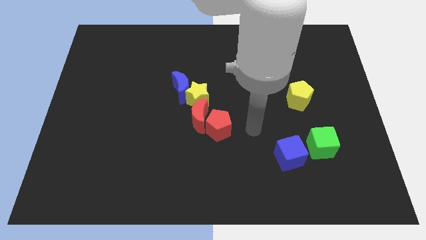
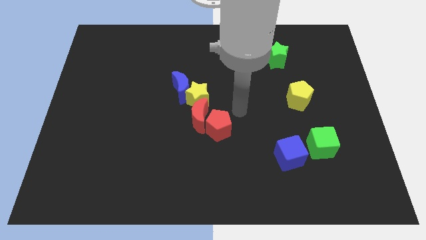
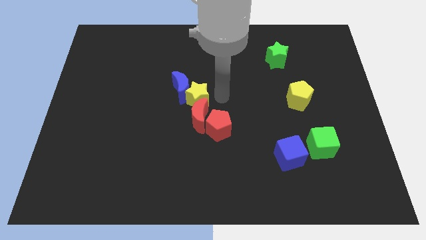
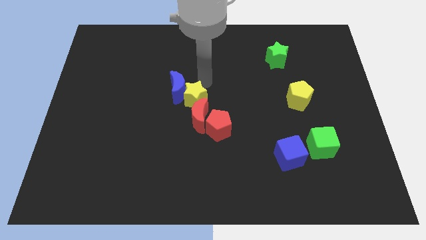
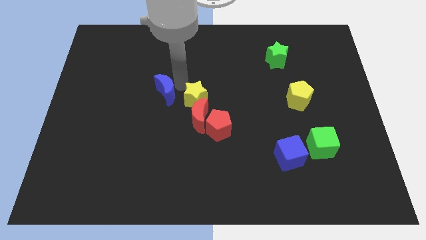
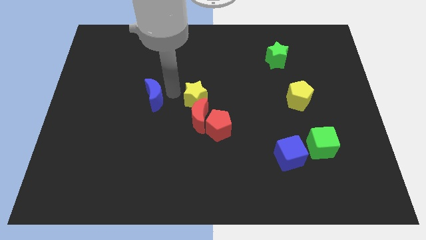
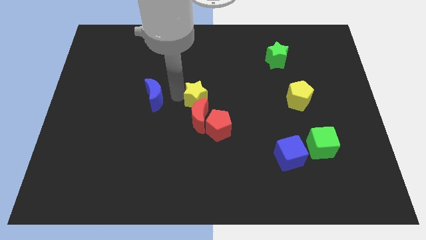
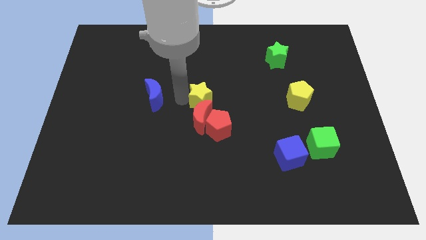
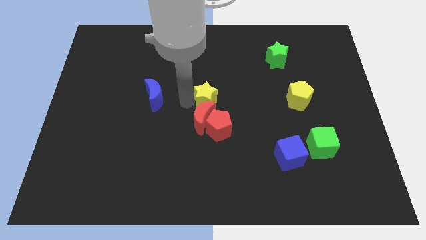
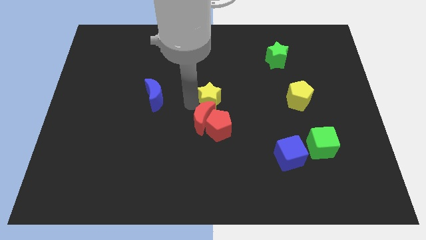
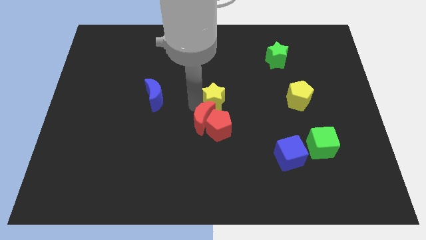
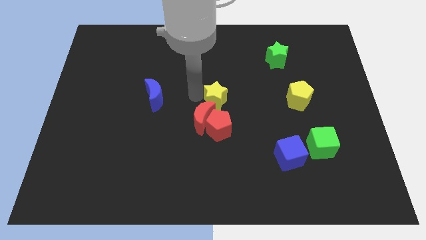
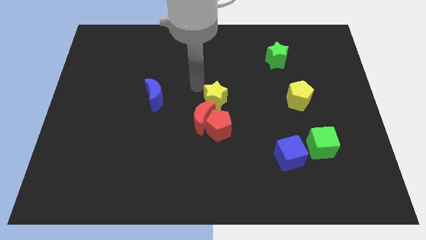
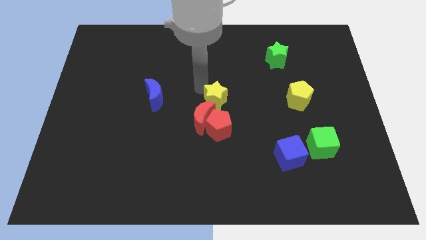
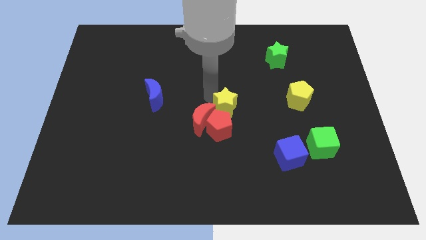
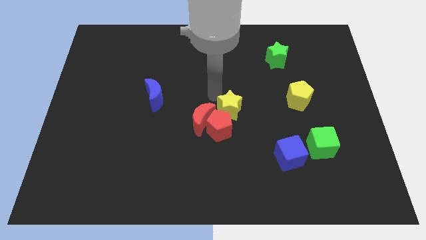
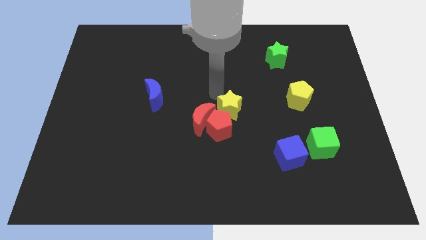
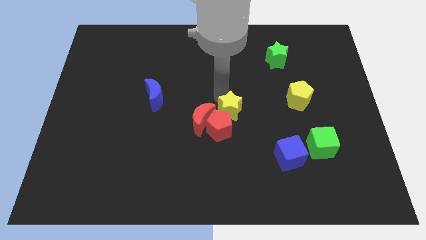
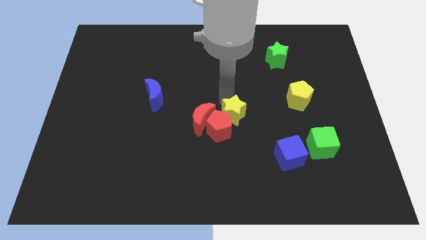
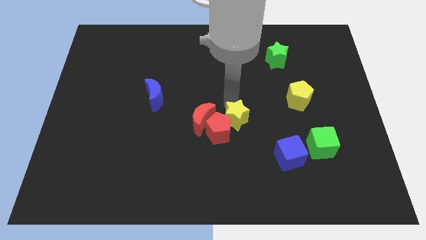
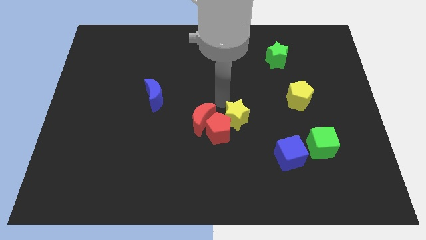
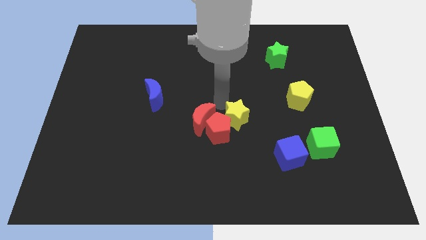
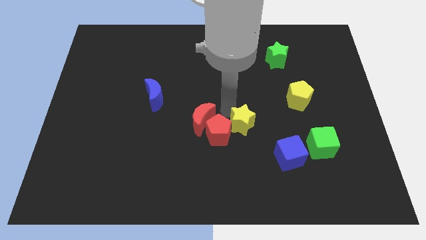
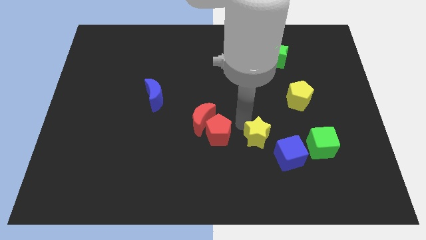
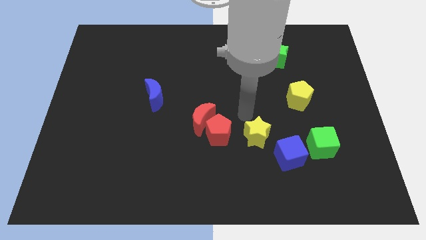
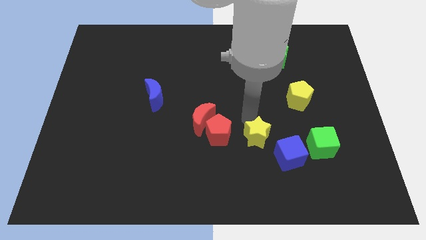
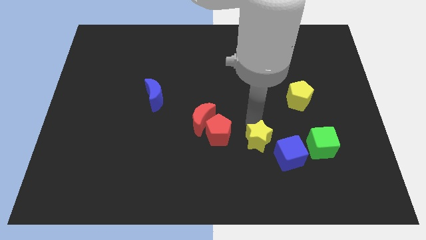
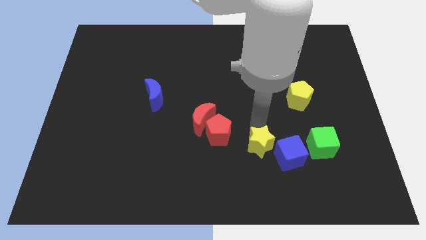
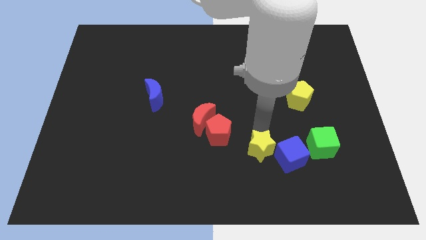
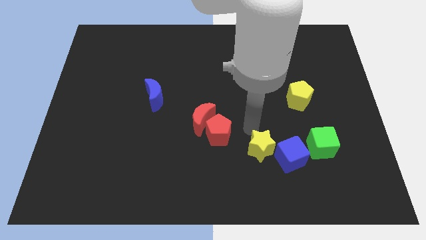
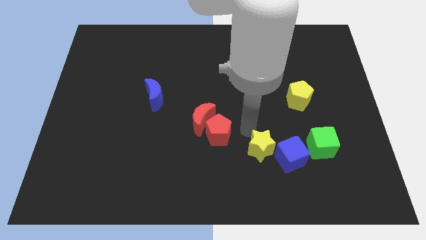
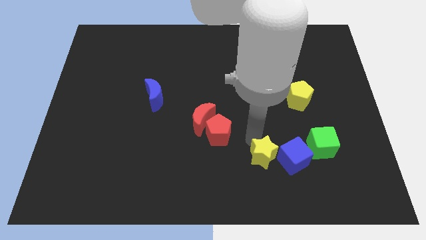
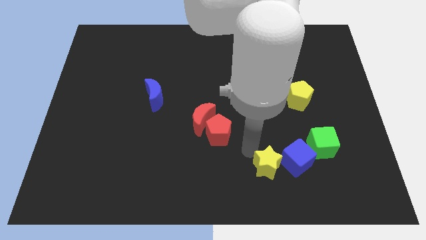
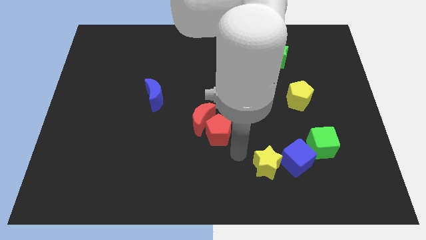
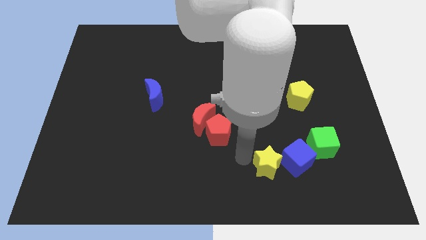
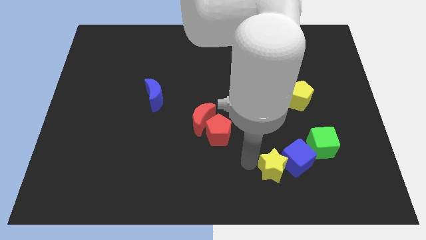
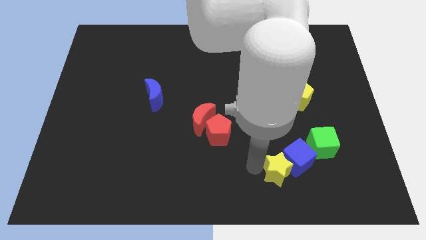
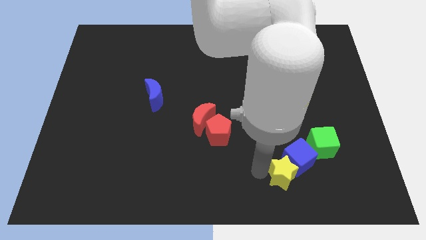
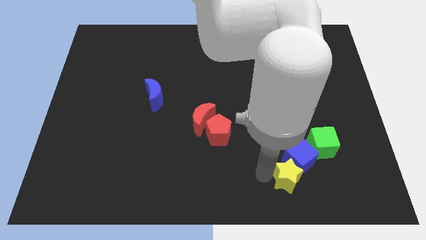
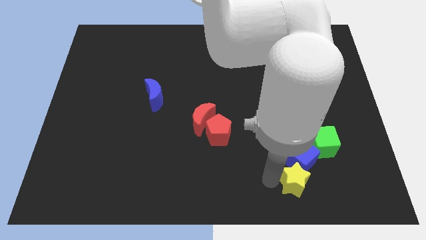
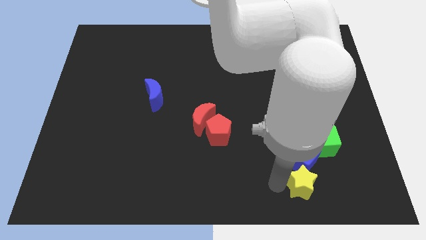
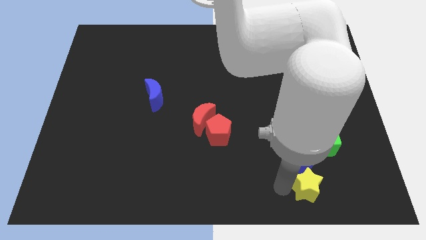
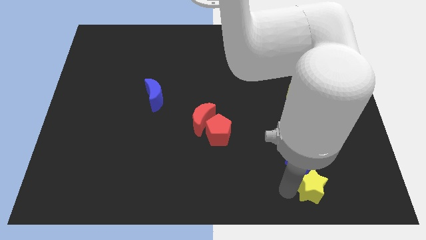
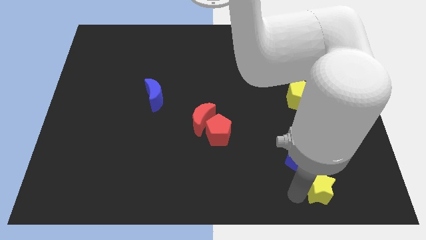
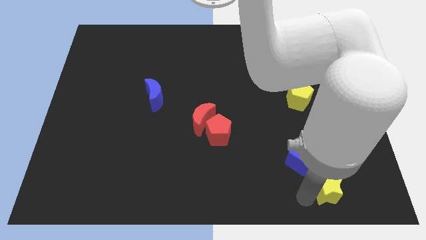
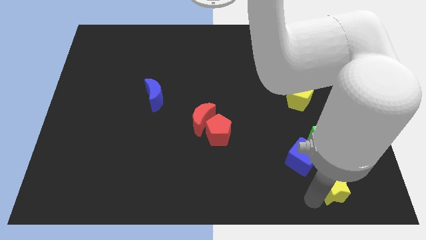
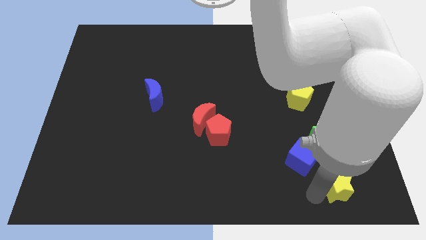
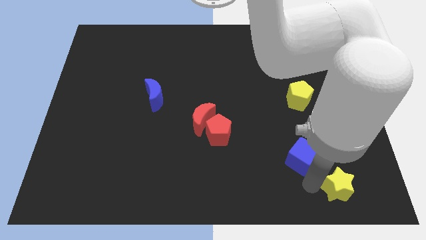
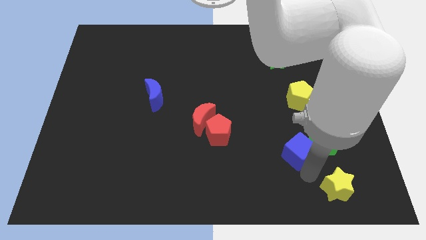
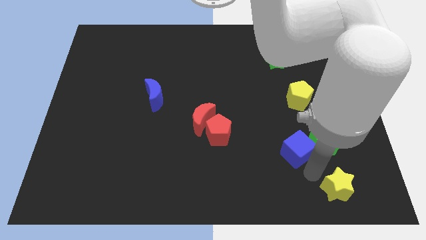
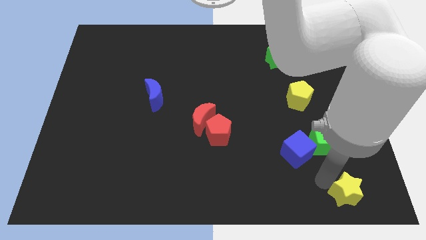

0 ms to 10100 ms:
push the yellow star to the bottom right corner

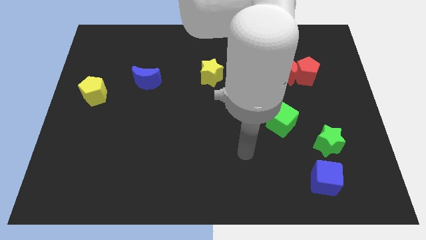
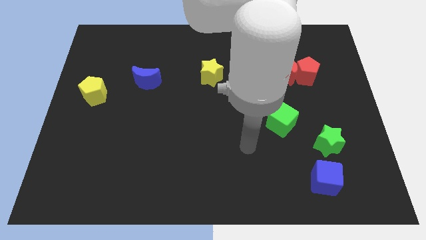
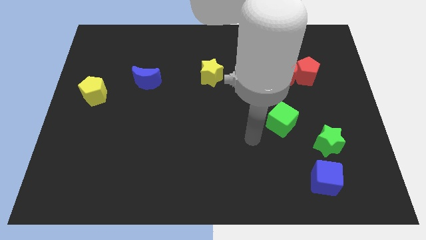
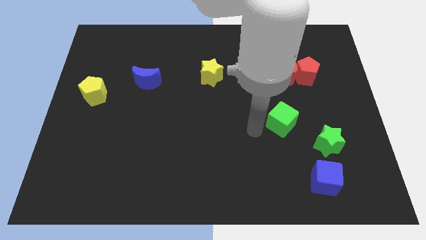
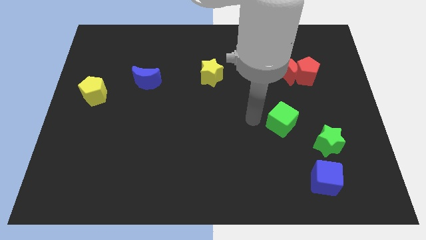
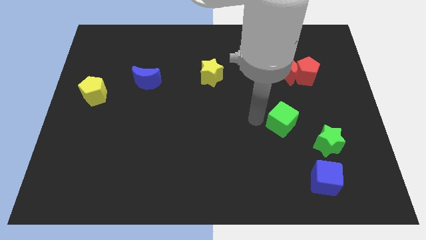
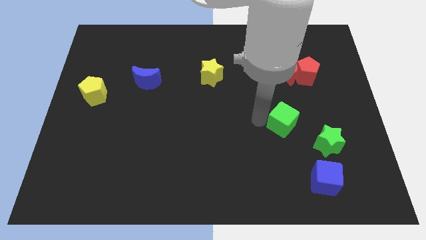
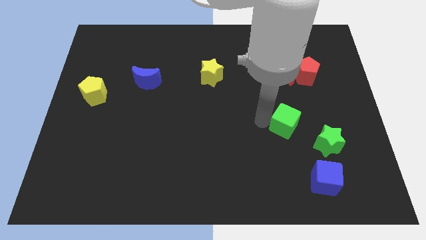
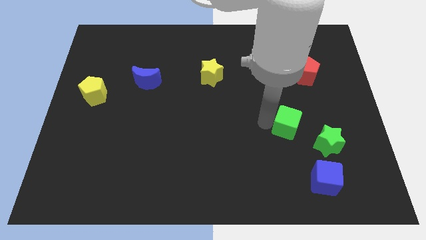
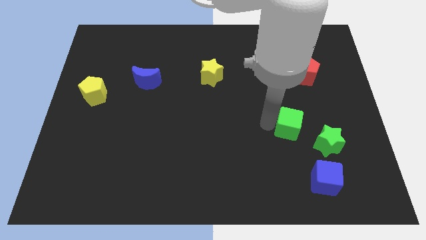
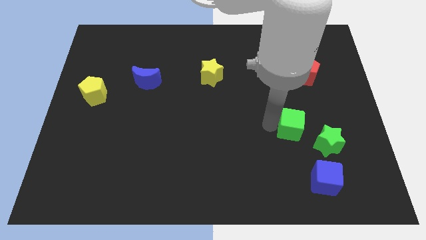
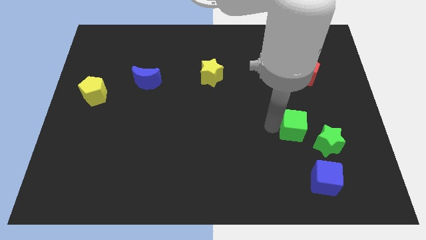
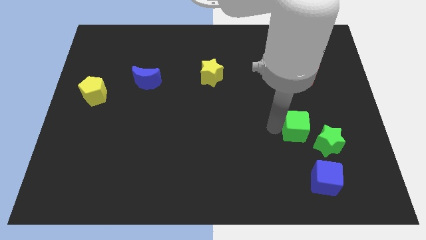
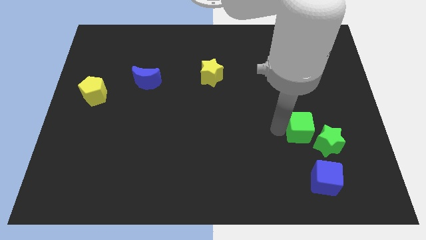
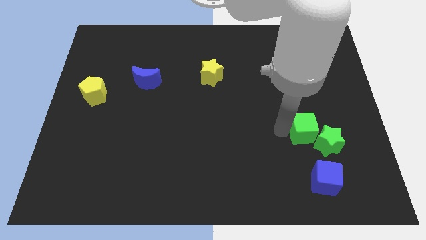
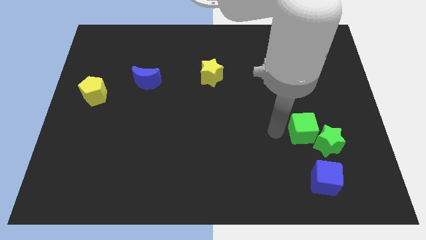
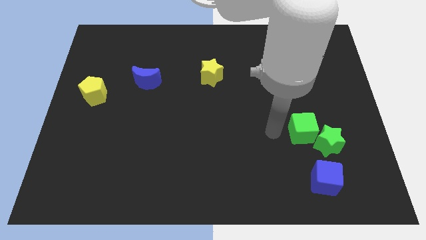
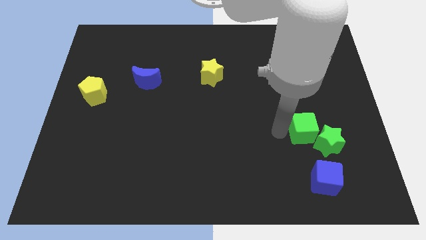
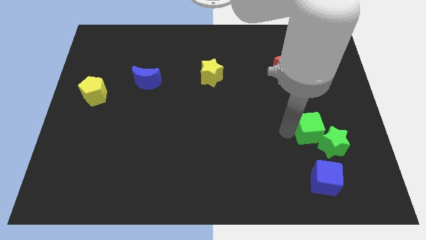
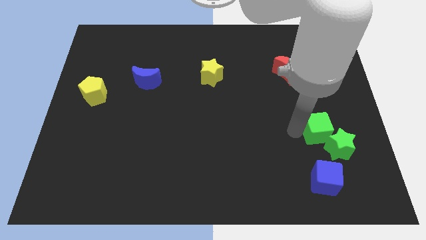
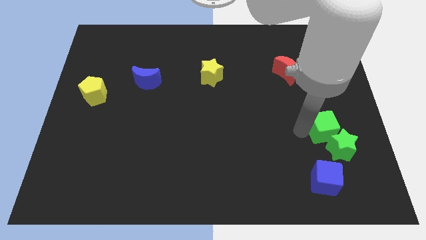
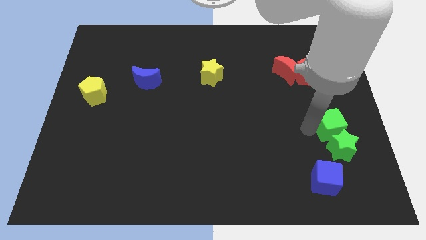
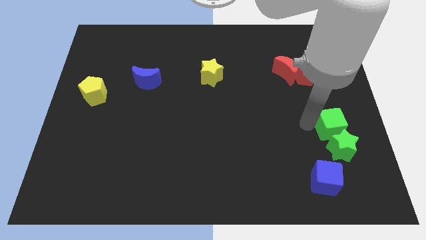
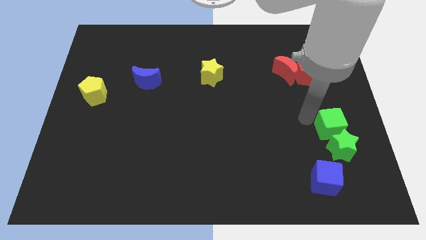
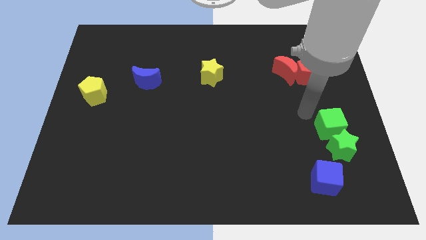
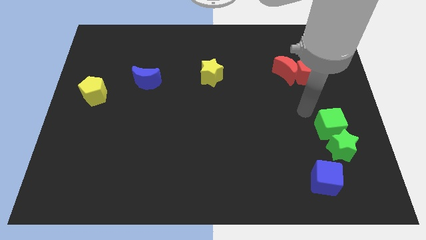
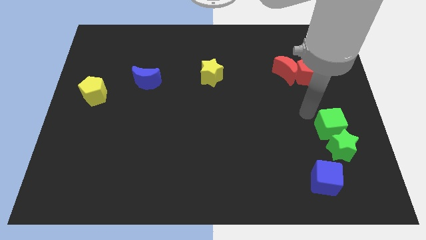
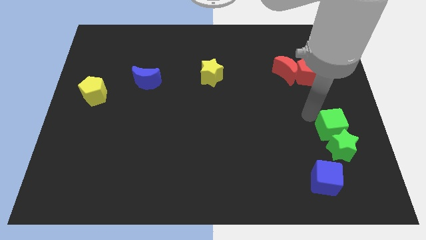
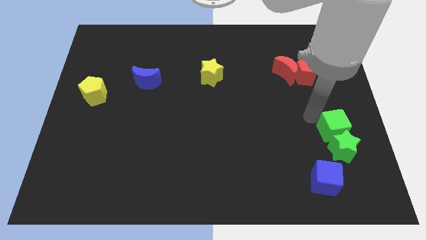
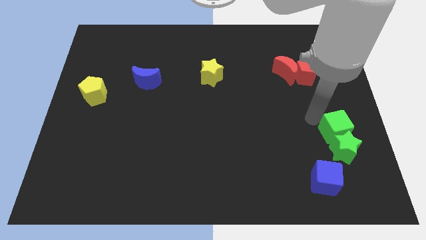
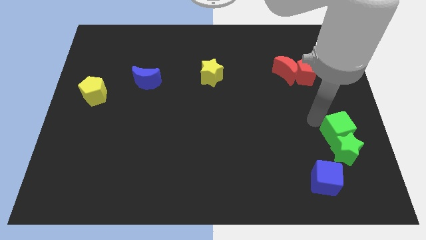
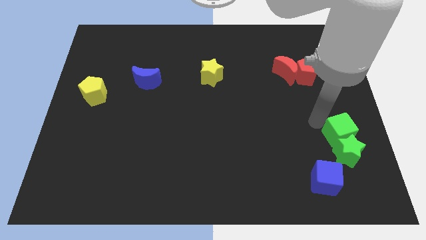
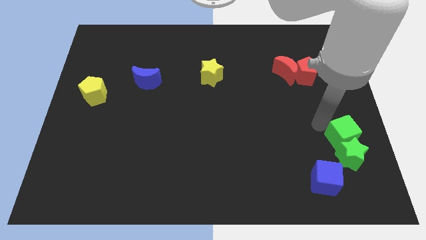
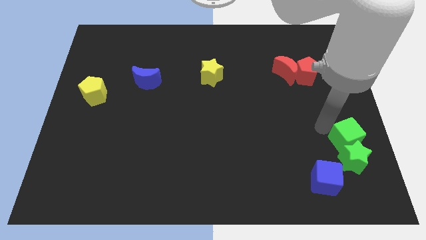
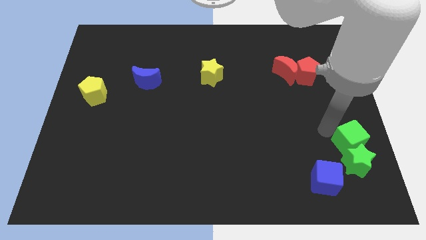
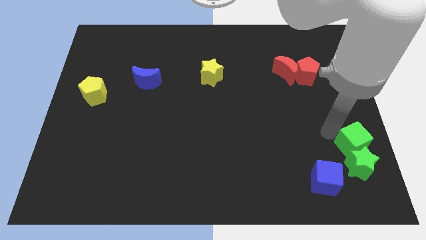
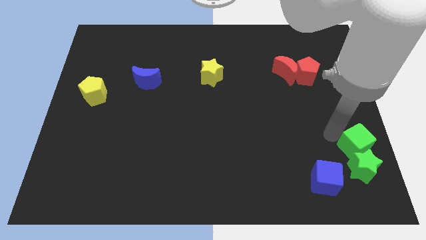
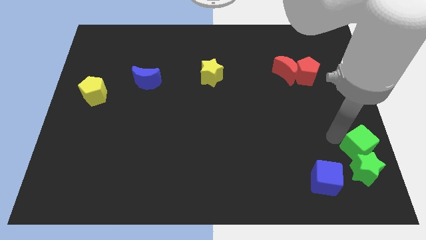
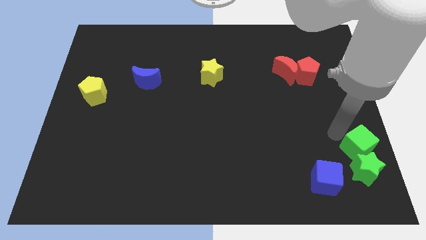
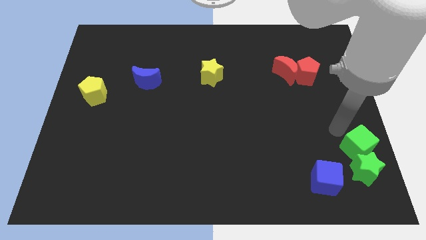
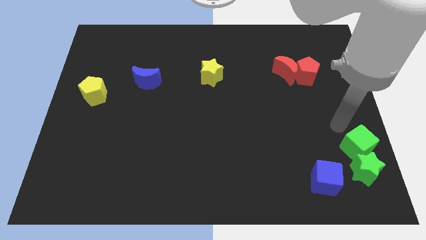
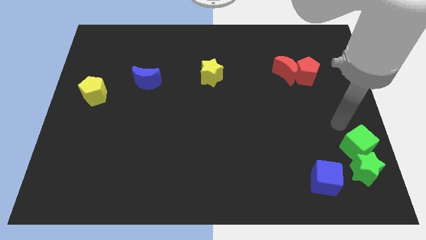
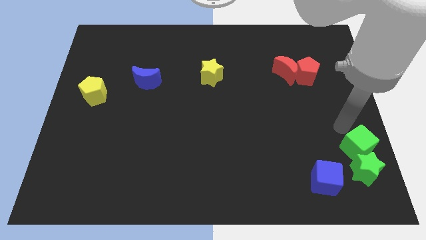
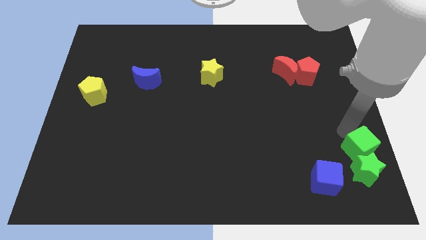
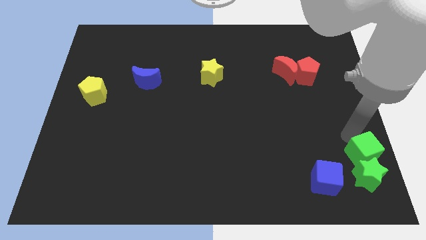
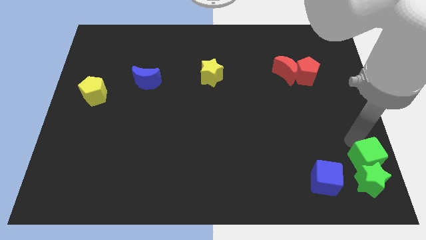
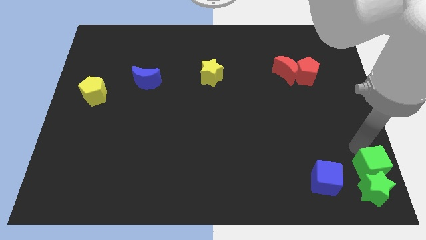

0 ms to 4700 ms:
move the green cube to the bottom right corner
